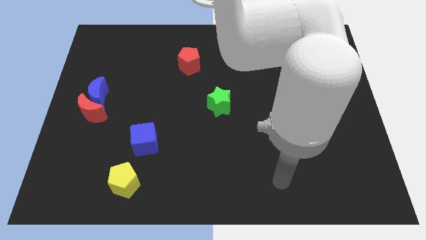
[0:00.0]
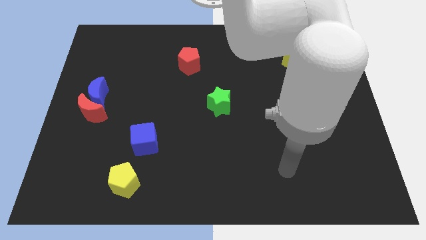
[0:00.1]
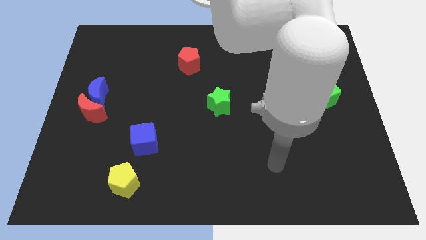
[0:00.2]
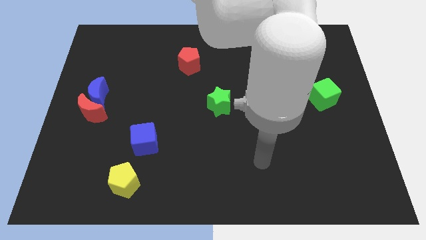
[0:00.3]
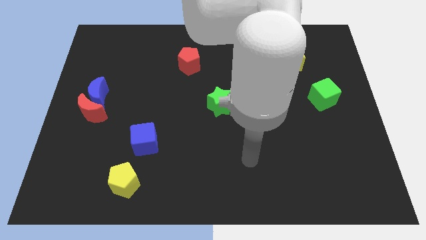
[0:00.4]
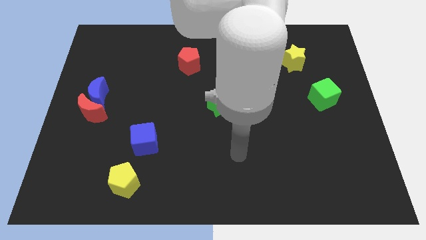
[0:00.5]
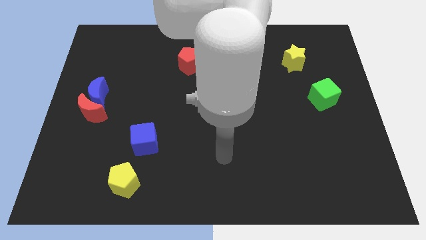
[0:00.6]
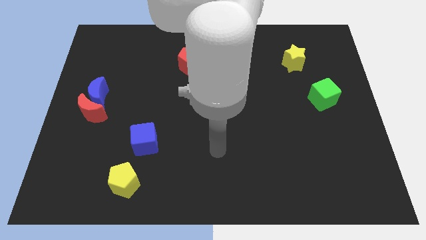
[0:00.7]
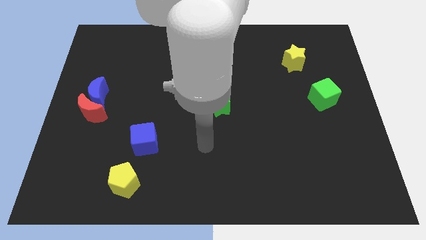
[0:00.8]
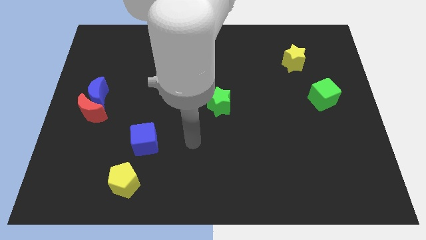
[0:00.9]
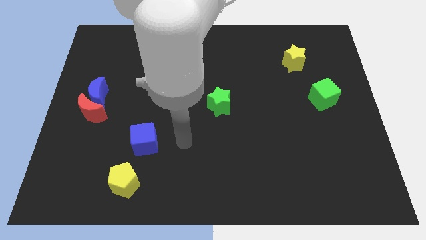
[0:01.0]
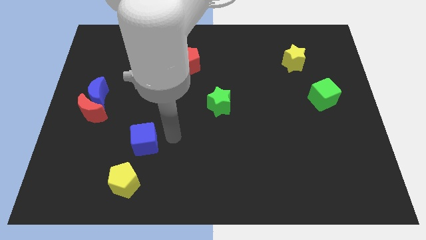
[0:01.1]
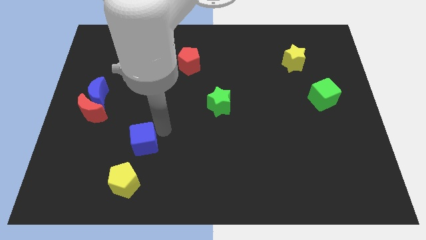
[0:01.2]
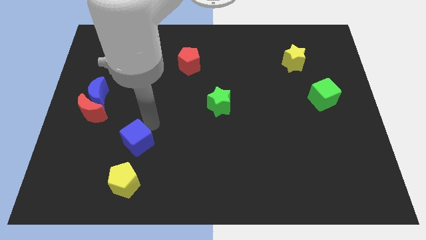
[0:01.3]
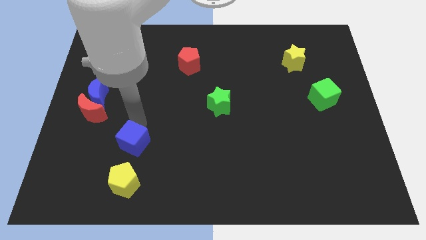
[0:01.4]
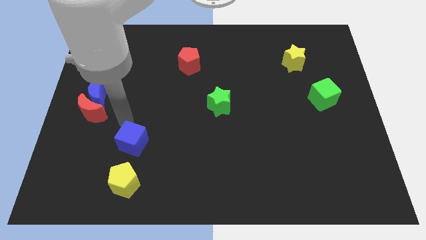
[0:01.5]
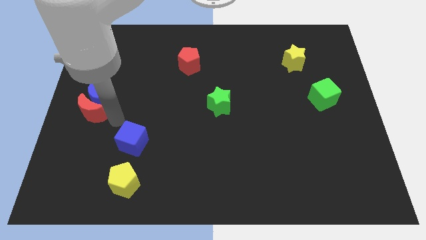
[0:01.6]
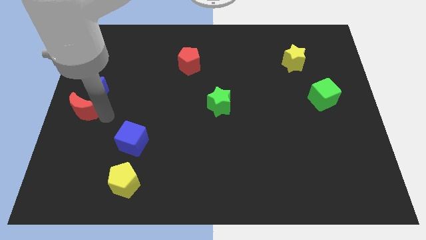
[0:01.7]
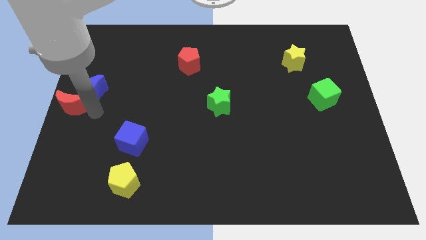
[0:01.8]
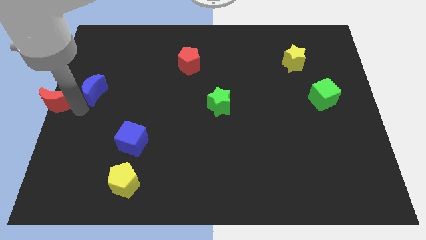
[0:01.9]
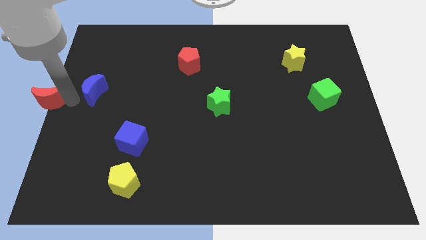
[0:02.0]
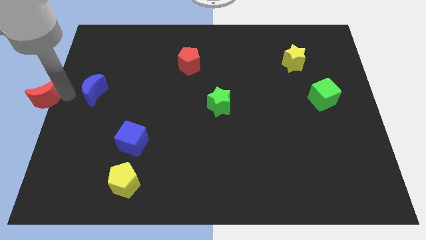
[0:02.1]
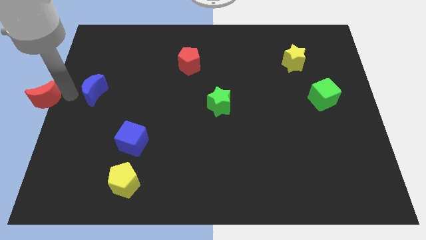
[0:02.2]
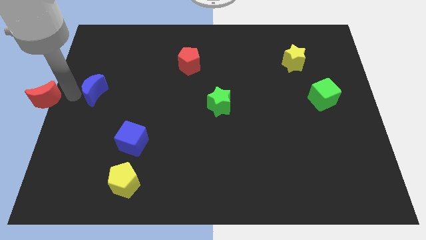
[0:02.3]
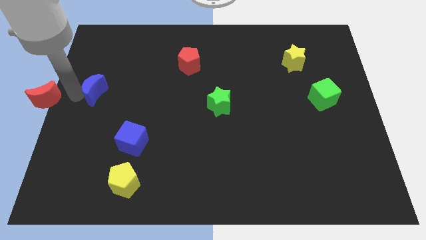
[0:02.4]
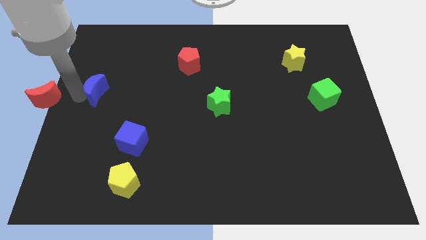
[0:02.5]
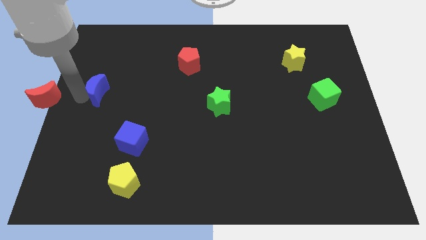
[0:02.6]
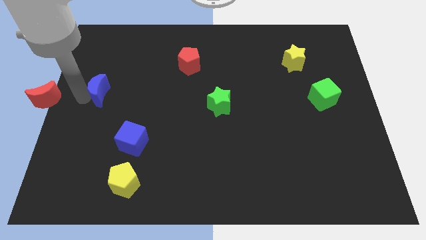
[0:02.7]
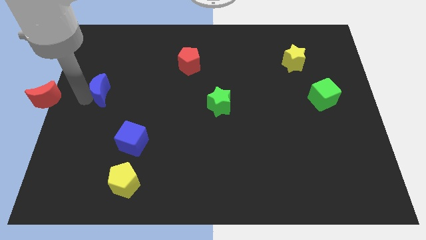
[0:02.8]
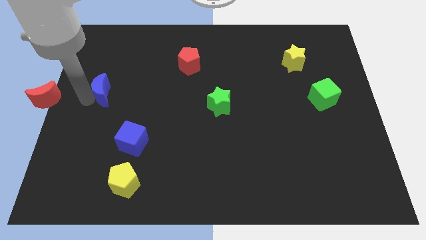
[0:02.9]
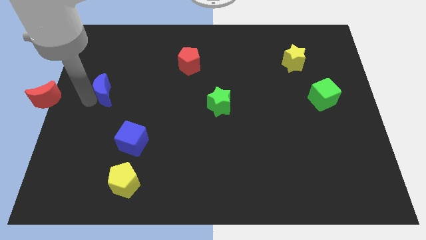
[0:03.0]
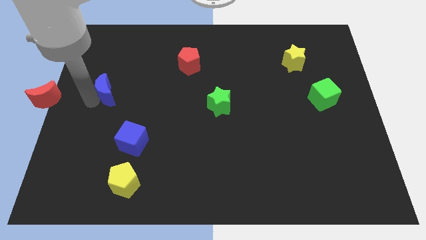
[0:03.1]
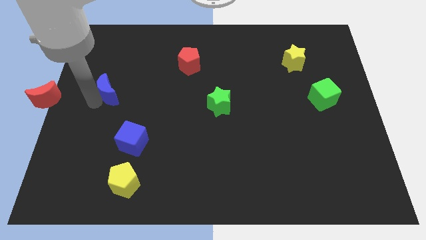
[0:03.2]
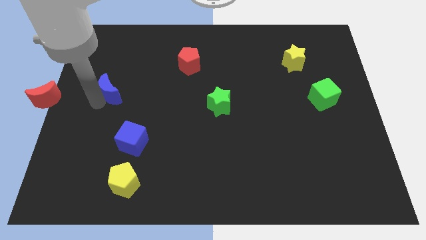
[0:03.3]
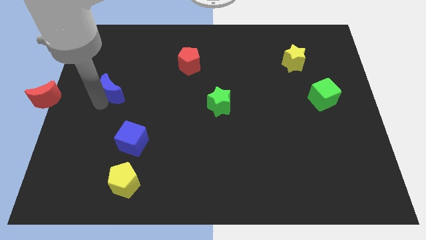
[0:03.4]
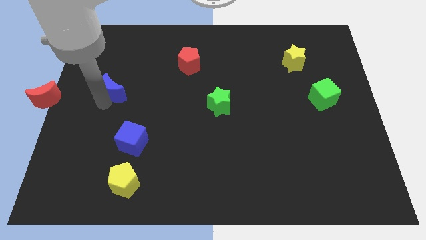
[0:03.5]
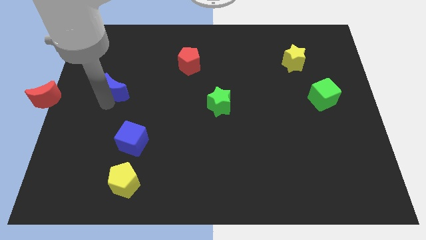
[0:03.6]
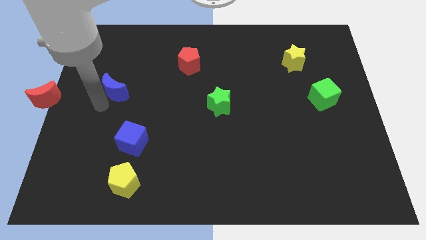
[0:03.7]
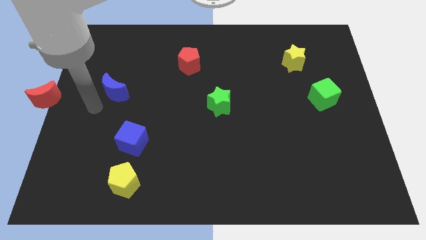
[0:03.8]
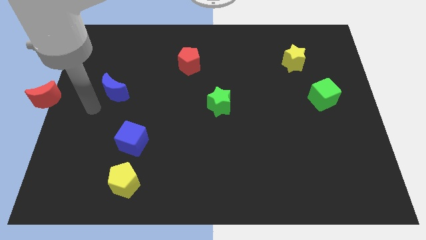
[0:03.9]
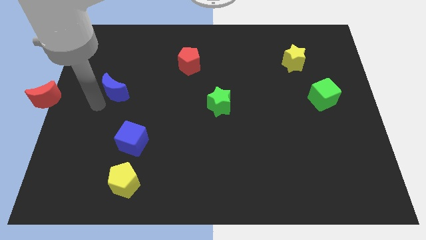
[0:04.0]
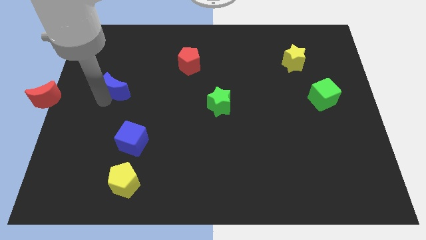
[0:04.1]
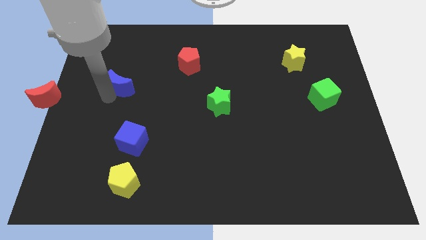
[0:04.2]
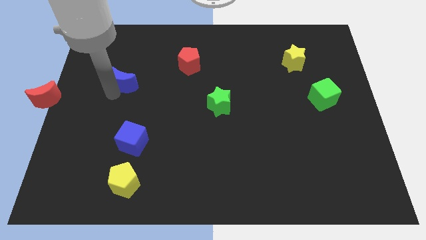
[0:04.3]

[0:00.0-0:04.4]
slightly move the blue moon upwards and then right

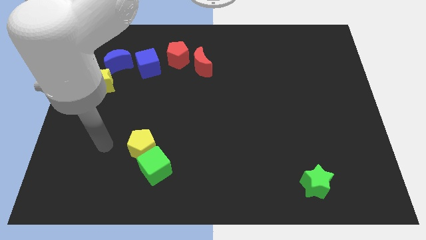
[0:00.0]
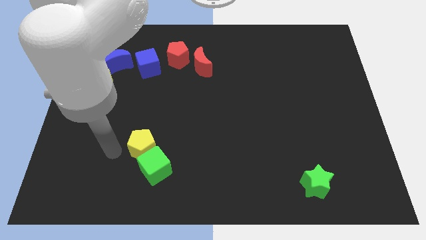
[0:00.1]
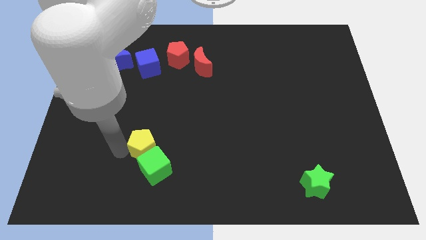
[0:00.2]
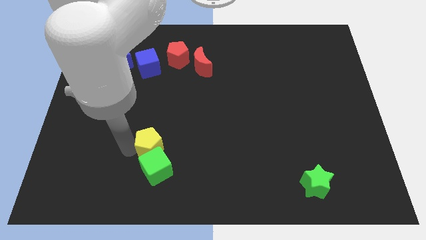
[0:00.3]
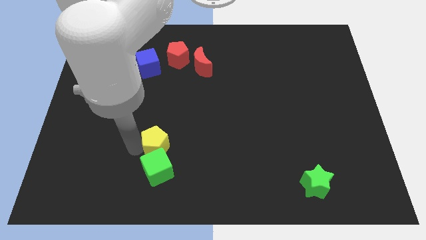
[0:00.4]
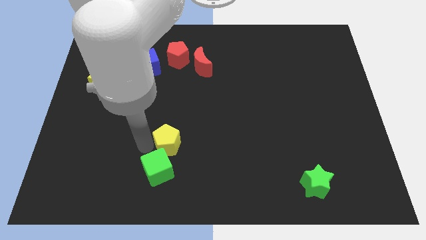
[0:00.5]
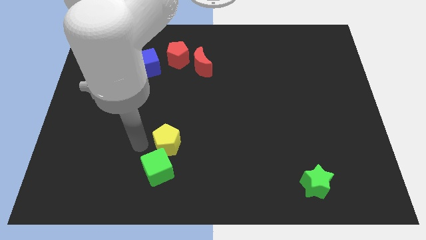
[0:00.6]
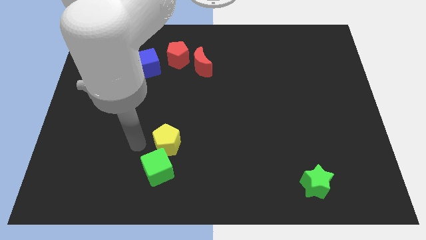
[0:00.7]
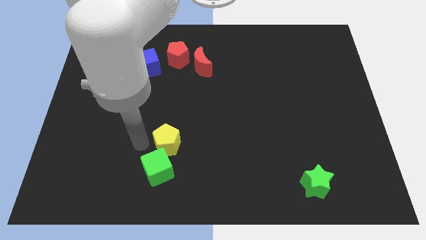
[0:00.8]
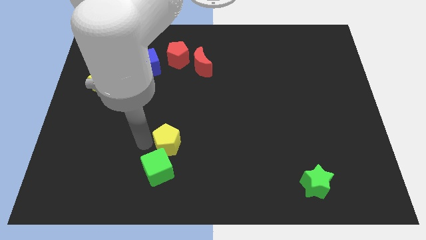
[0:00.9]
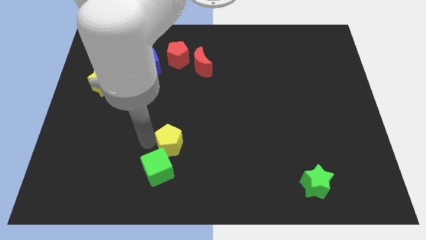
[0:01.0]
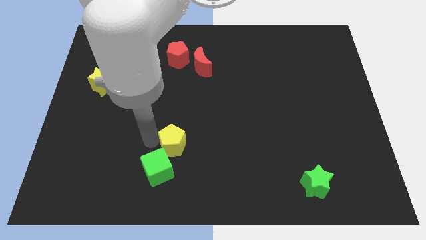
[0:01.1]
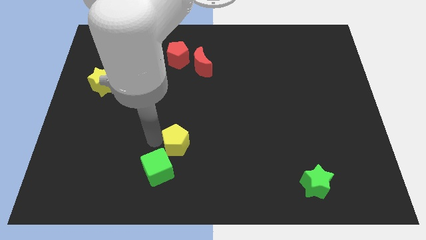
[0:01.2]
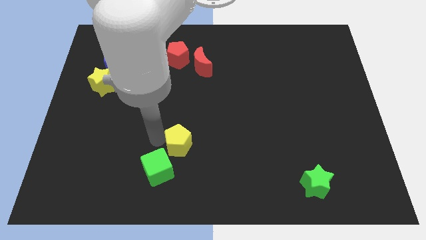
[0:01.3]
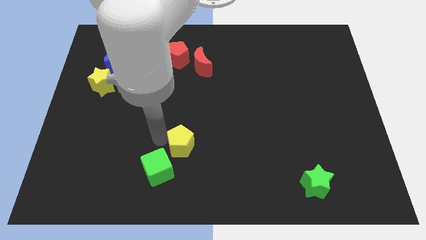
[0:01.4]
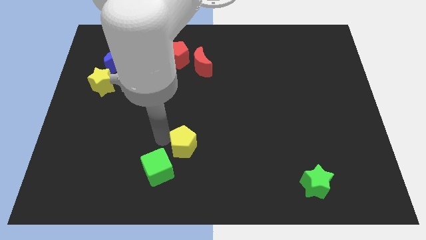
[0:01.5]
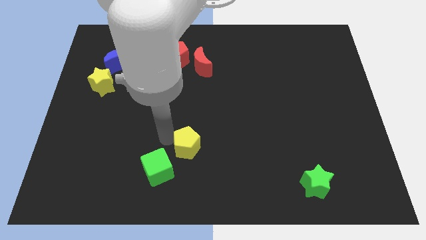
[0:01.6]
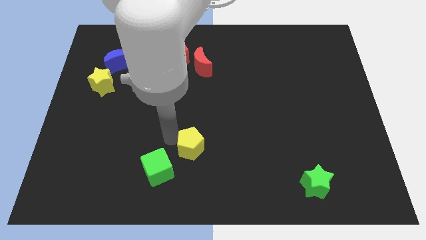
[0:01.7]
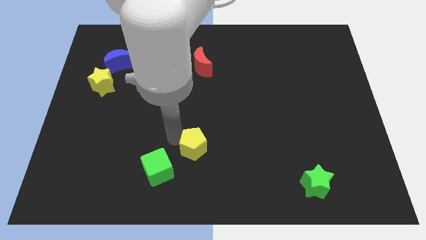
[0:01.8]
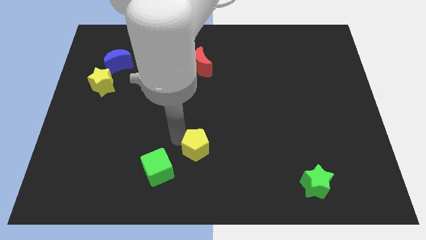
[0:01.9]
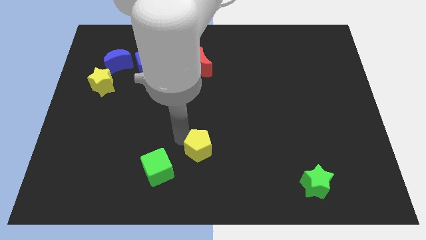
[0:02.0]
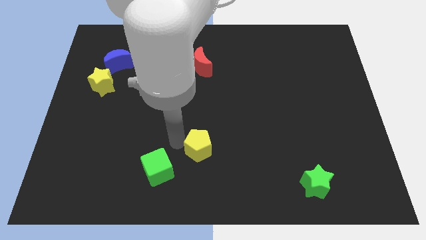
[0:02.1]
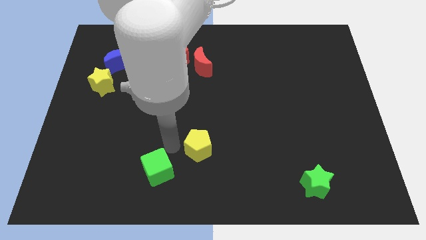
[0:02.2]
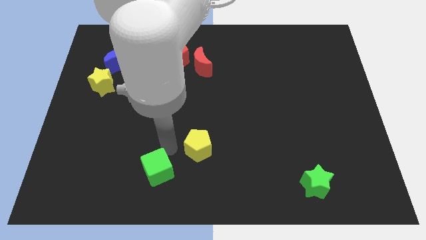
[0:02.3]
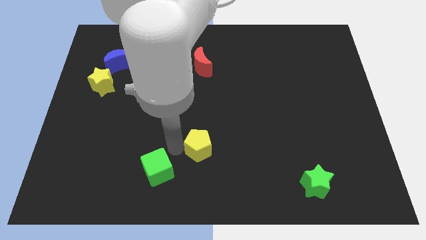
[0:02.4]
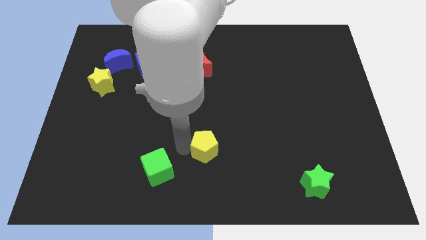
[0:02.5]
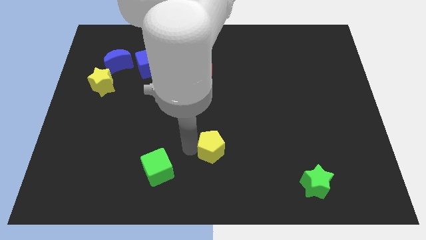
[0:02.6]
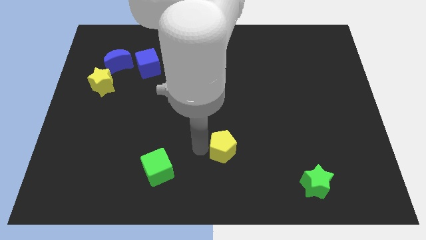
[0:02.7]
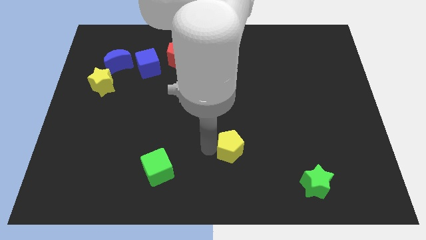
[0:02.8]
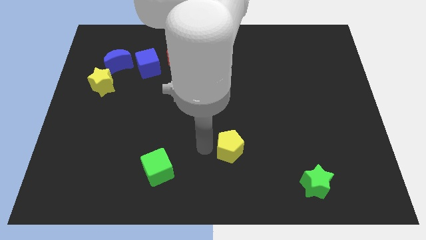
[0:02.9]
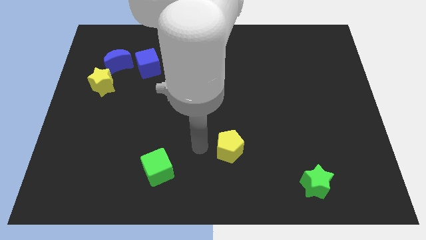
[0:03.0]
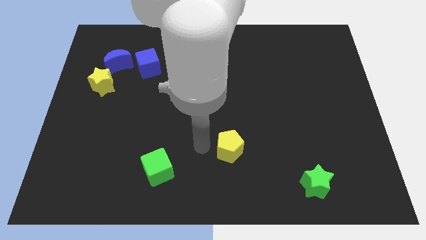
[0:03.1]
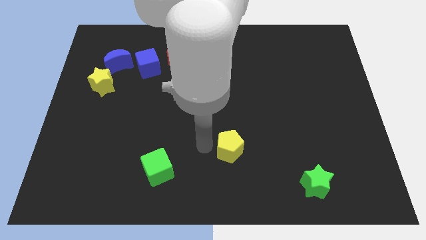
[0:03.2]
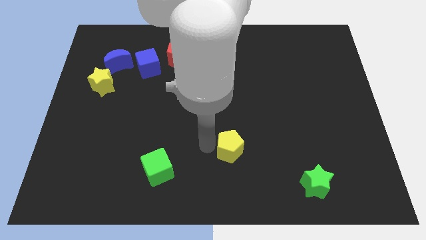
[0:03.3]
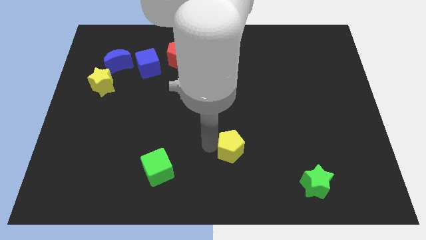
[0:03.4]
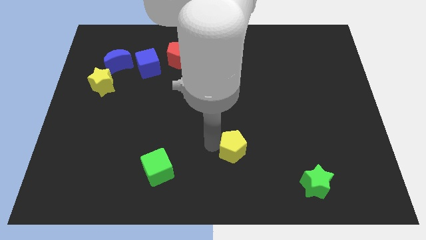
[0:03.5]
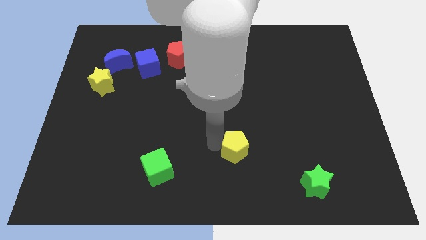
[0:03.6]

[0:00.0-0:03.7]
slide the yellow pentagon to the right
